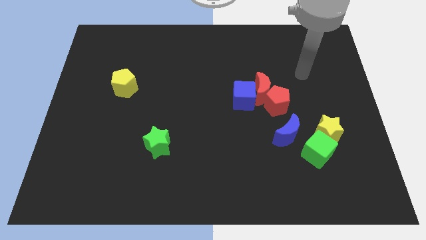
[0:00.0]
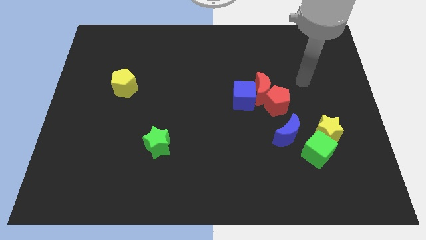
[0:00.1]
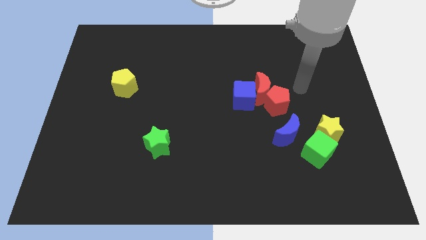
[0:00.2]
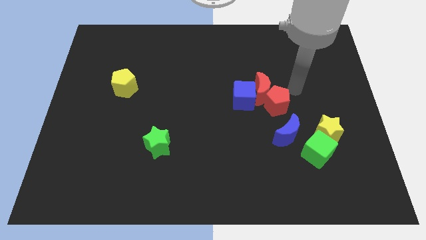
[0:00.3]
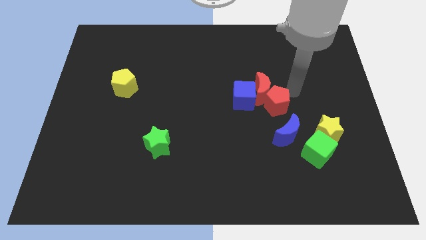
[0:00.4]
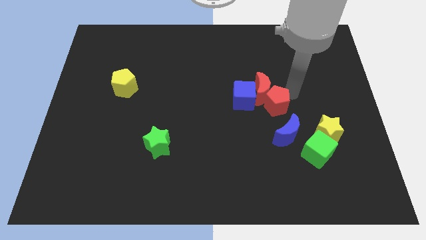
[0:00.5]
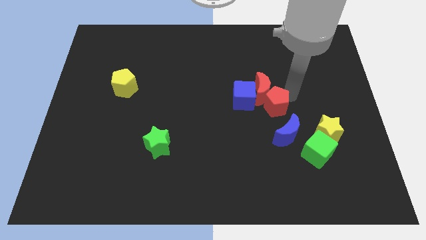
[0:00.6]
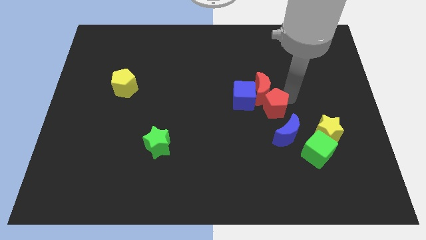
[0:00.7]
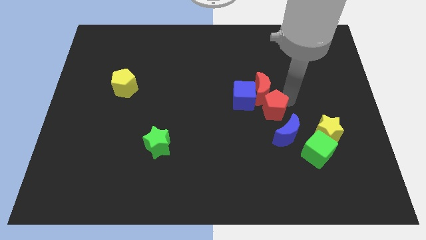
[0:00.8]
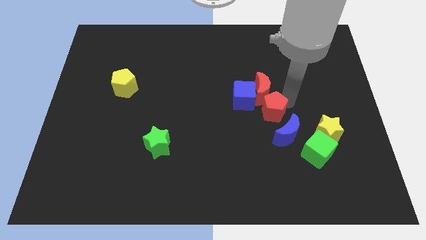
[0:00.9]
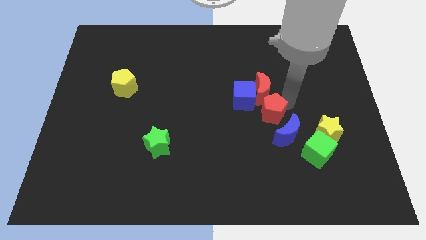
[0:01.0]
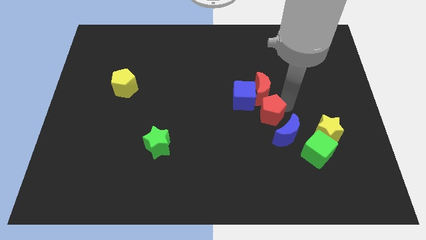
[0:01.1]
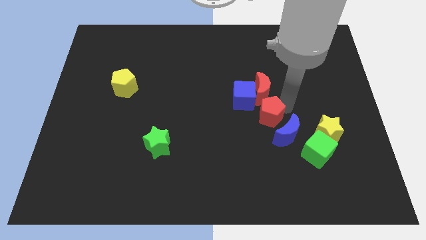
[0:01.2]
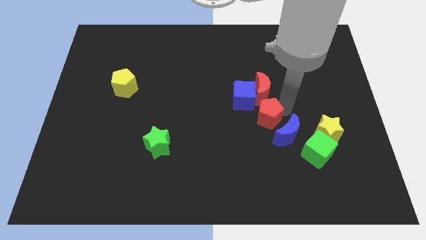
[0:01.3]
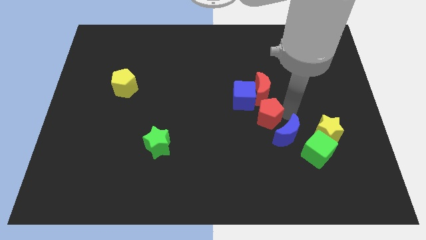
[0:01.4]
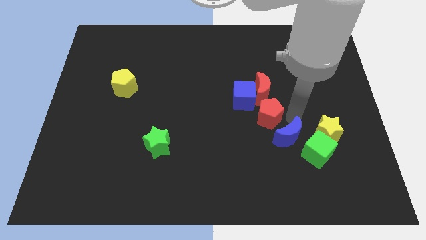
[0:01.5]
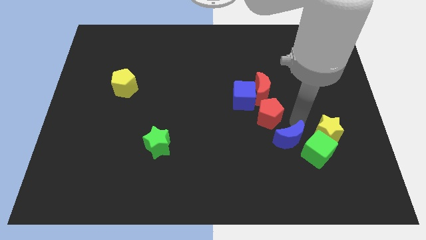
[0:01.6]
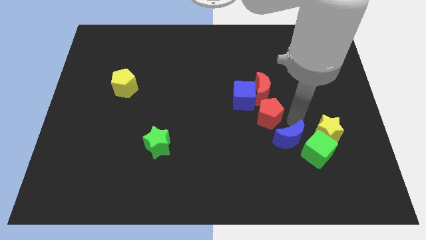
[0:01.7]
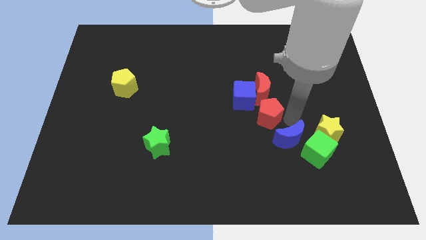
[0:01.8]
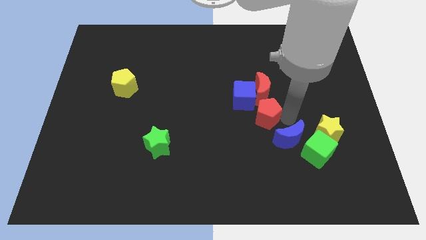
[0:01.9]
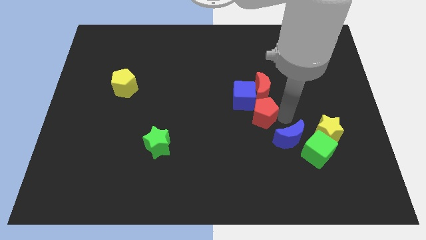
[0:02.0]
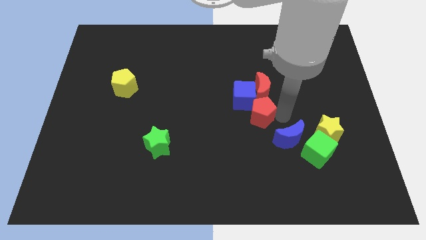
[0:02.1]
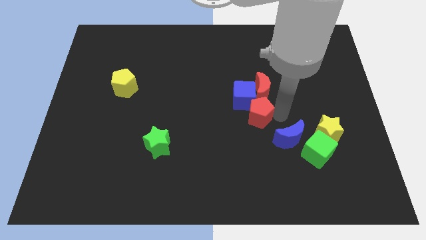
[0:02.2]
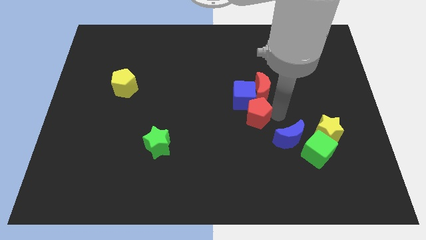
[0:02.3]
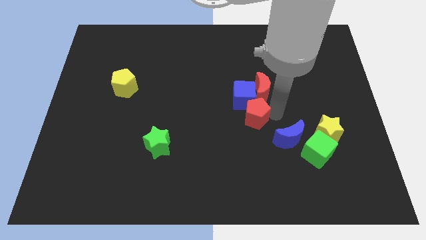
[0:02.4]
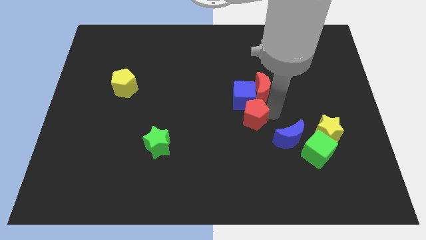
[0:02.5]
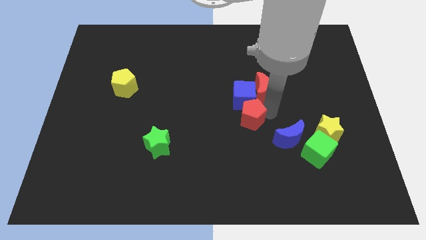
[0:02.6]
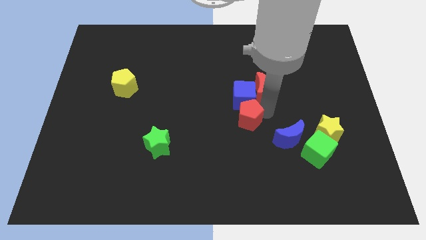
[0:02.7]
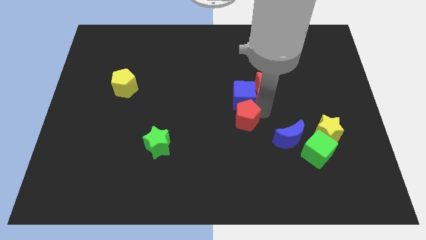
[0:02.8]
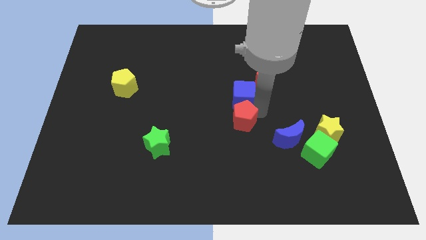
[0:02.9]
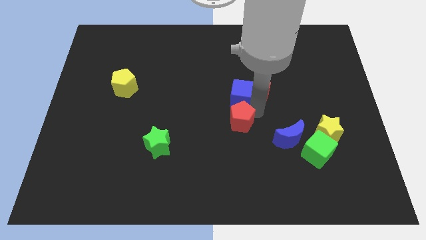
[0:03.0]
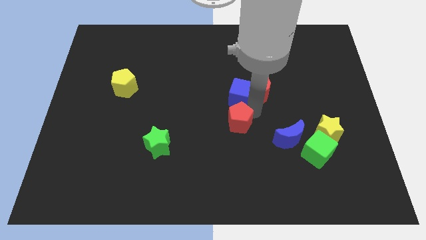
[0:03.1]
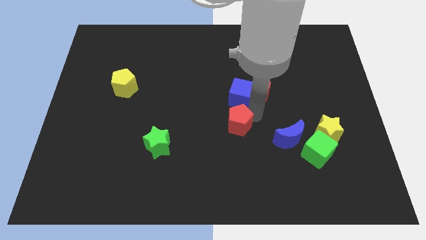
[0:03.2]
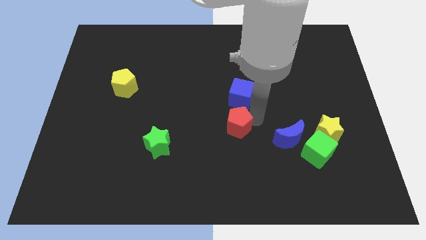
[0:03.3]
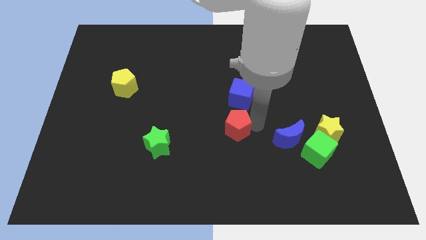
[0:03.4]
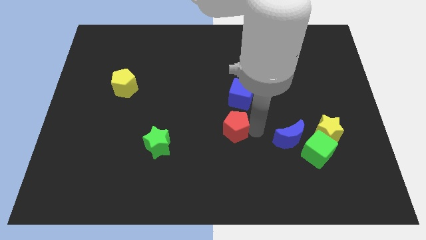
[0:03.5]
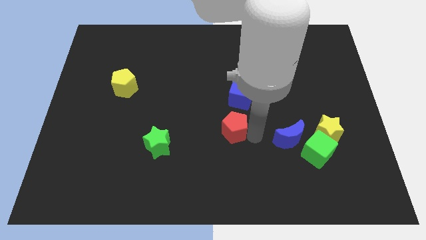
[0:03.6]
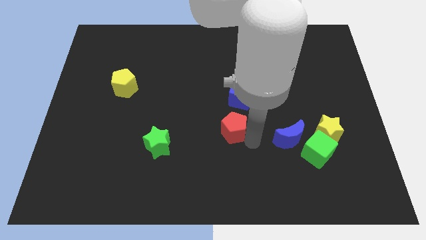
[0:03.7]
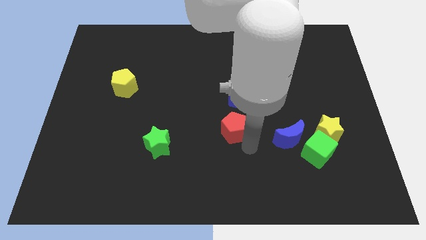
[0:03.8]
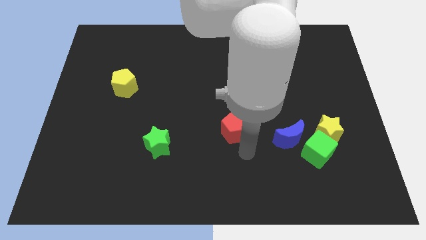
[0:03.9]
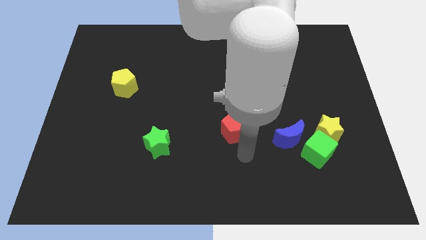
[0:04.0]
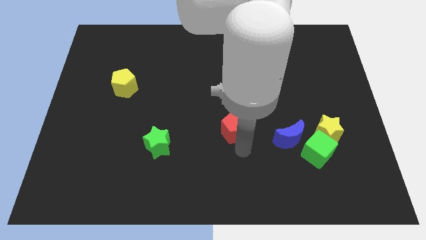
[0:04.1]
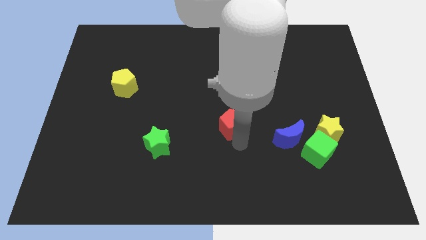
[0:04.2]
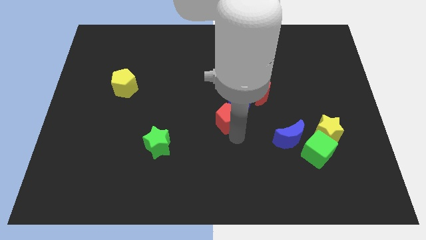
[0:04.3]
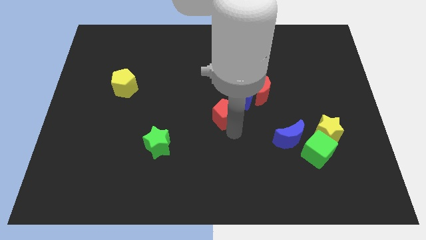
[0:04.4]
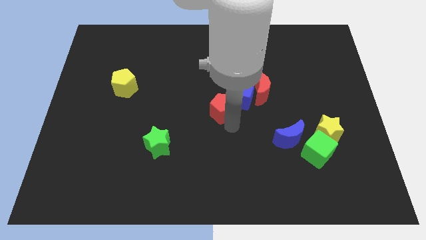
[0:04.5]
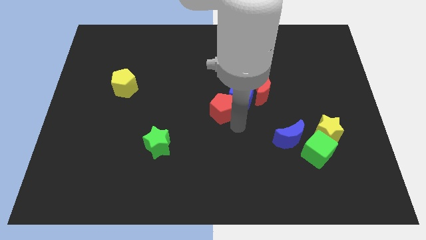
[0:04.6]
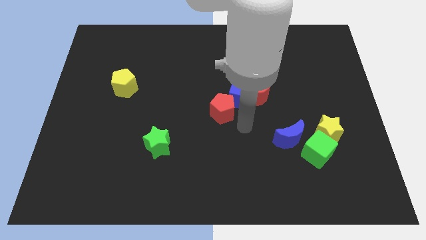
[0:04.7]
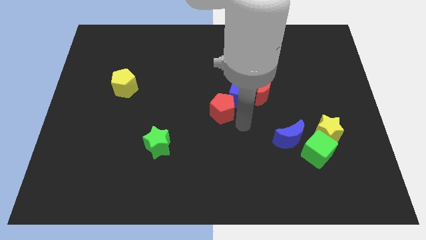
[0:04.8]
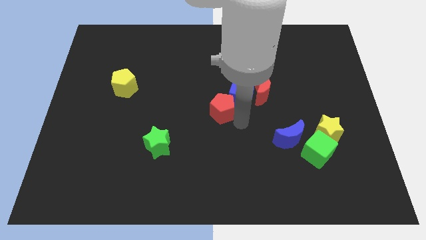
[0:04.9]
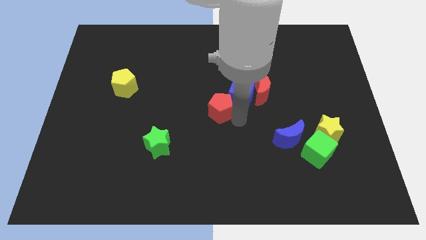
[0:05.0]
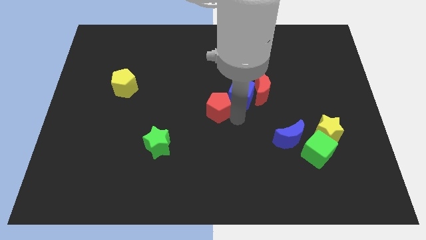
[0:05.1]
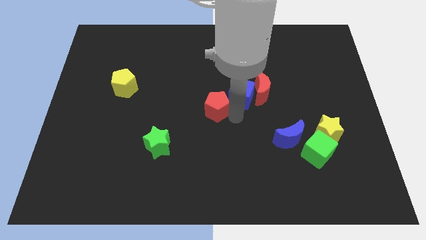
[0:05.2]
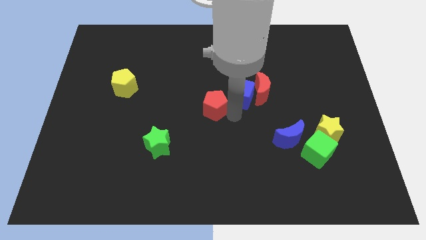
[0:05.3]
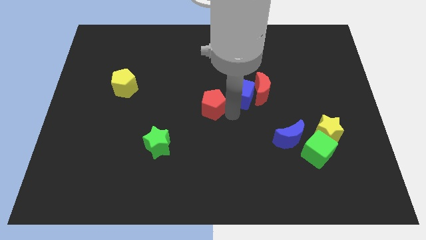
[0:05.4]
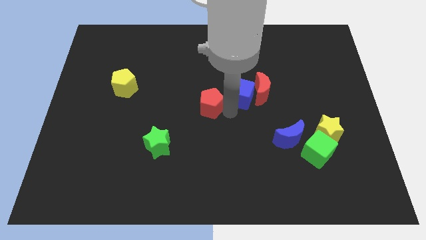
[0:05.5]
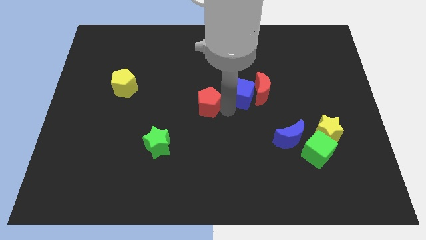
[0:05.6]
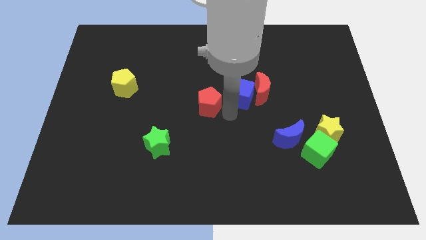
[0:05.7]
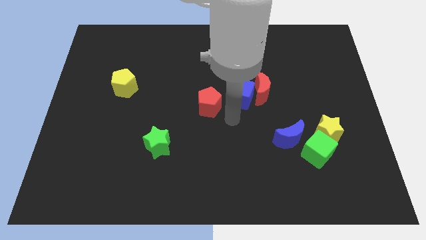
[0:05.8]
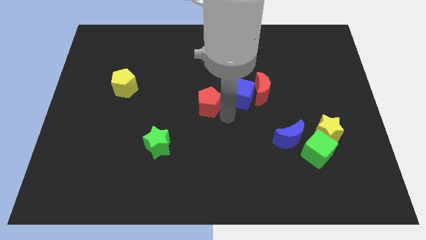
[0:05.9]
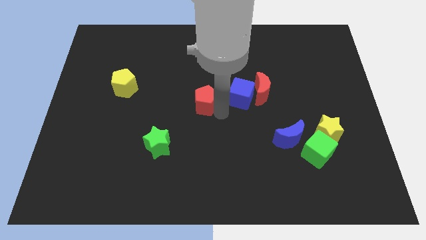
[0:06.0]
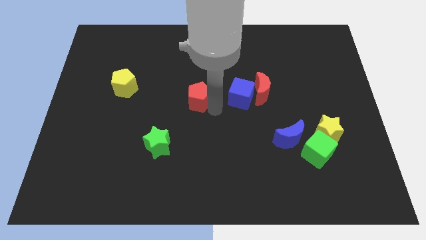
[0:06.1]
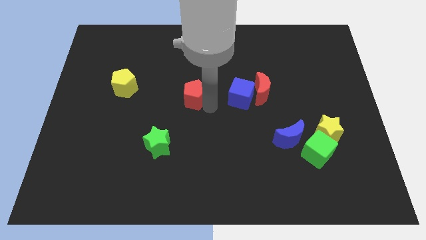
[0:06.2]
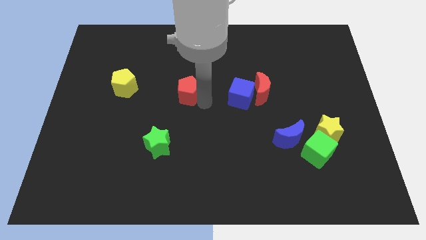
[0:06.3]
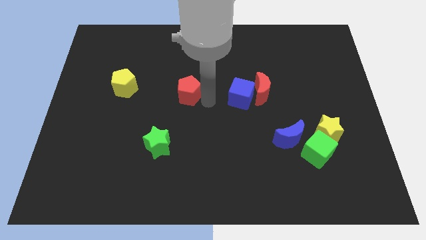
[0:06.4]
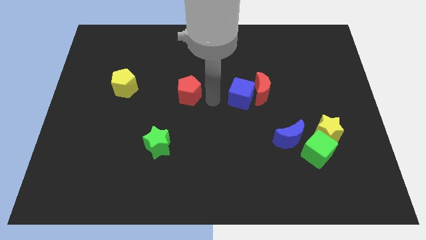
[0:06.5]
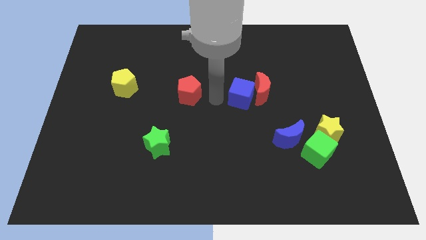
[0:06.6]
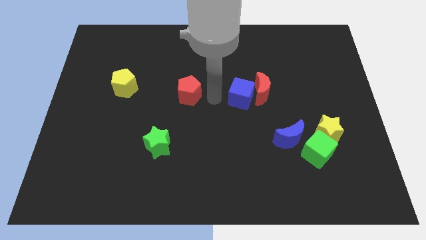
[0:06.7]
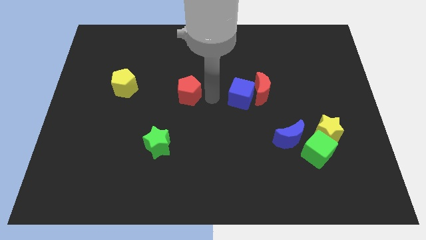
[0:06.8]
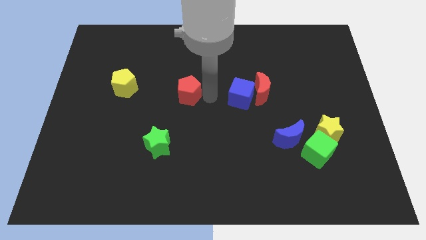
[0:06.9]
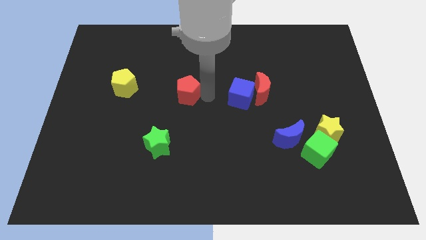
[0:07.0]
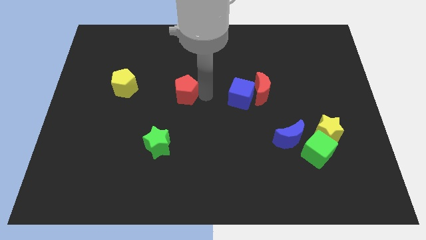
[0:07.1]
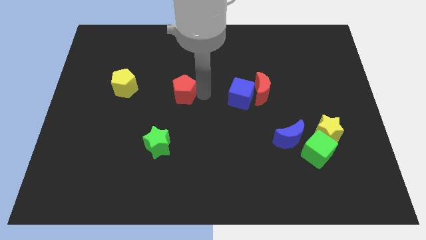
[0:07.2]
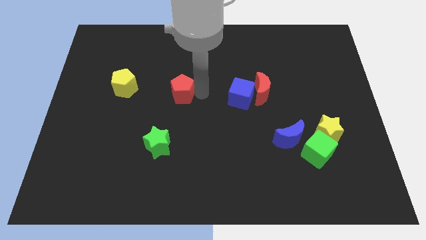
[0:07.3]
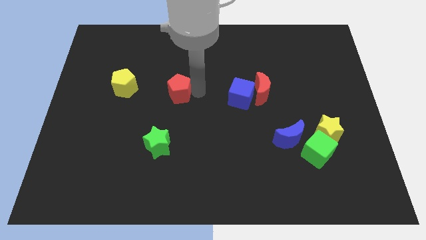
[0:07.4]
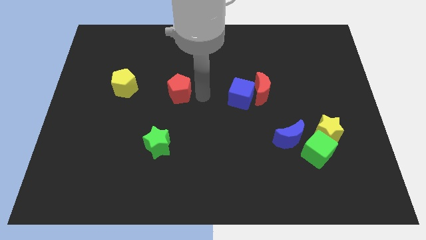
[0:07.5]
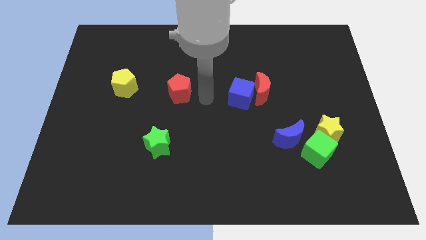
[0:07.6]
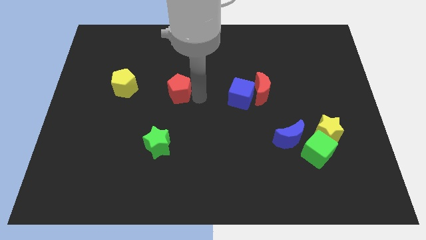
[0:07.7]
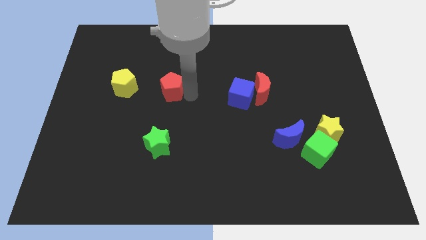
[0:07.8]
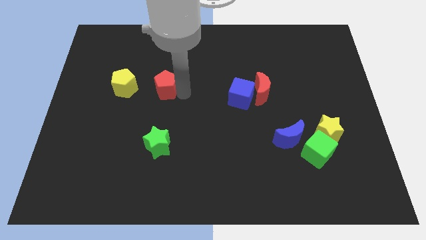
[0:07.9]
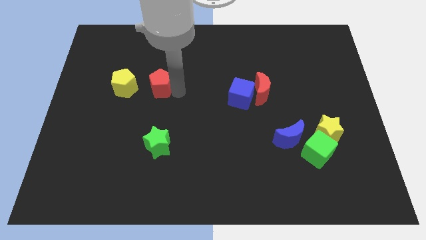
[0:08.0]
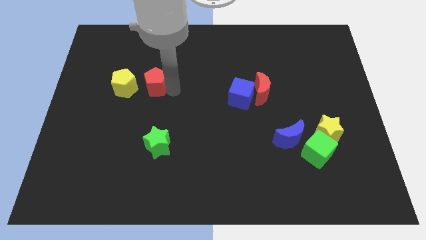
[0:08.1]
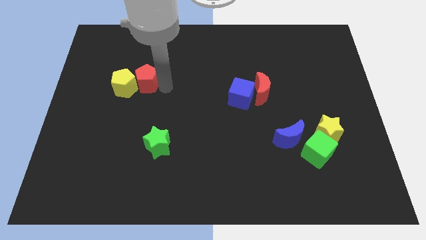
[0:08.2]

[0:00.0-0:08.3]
put the red pentagon close to the yellow pentagon
